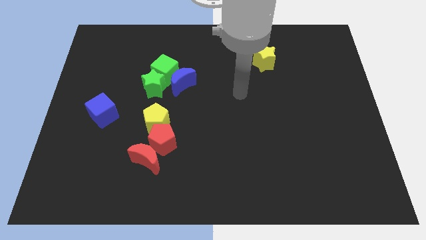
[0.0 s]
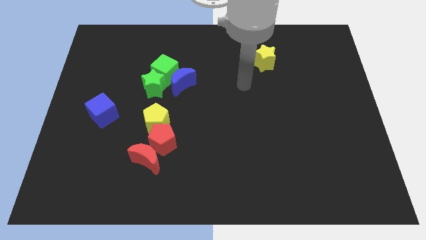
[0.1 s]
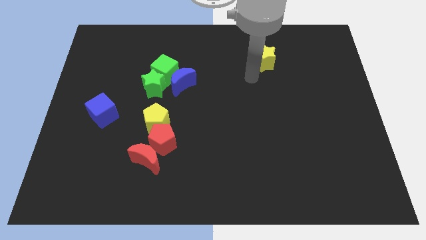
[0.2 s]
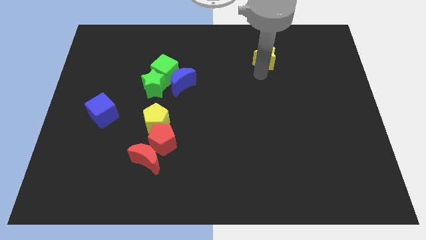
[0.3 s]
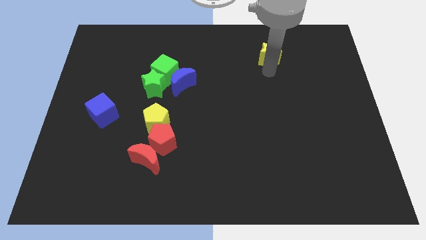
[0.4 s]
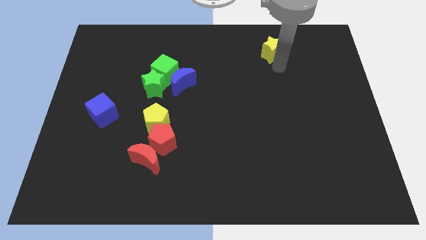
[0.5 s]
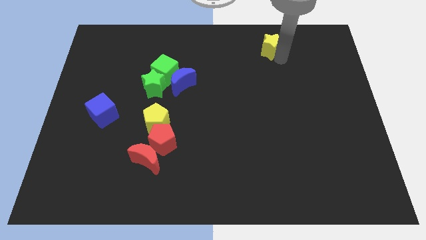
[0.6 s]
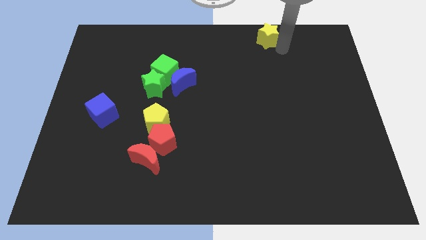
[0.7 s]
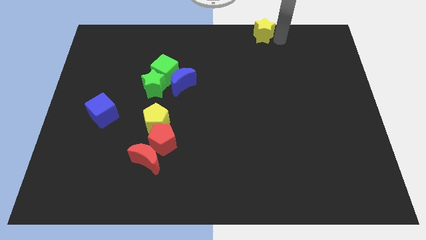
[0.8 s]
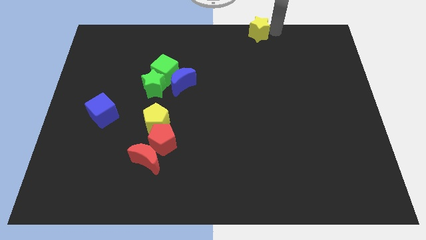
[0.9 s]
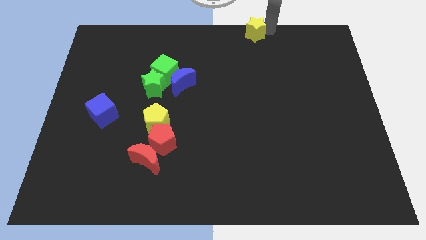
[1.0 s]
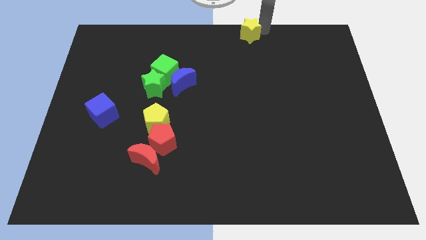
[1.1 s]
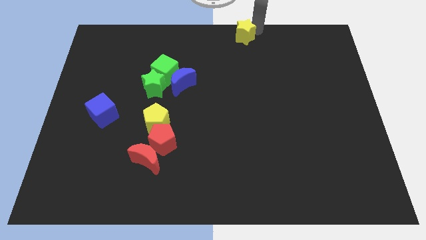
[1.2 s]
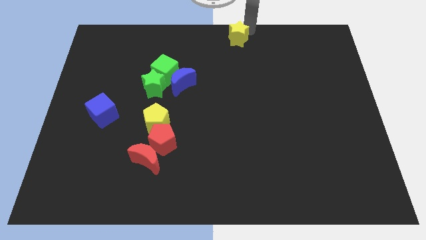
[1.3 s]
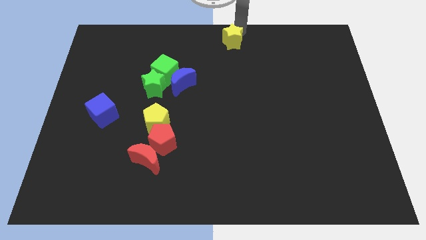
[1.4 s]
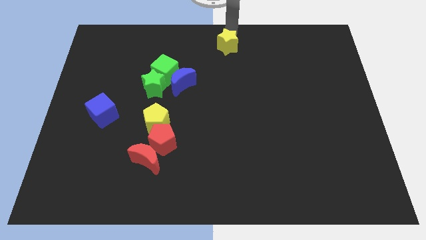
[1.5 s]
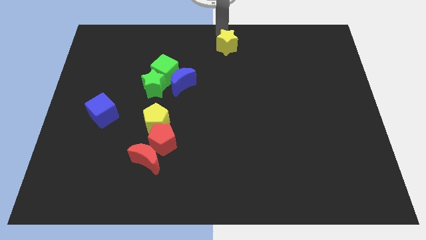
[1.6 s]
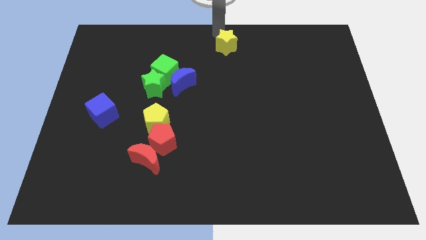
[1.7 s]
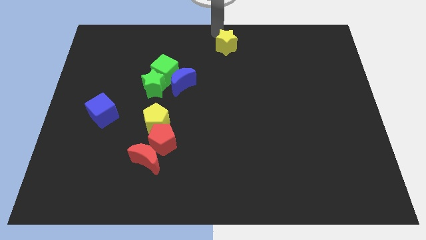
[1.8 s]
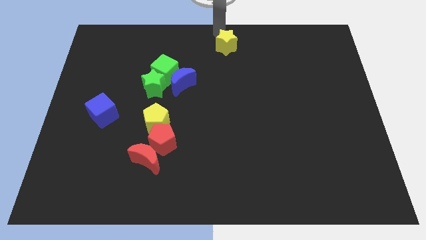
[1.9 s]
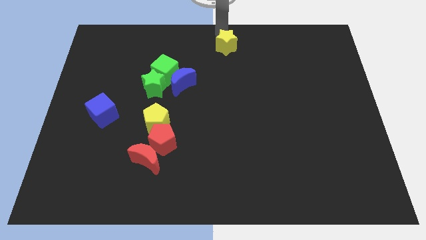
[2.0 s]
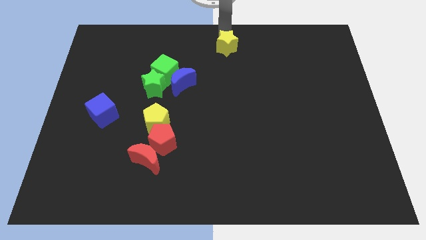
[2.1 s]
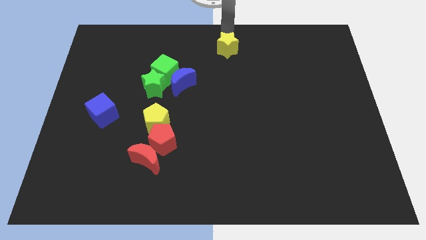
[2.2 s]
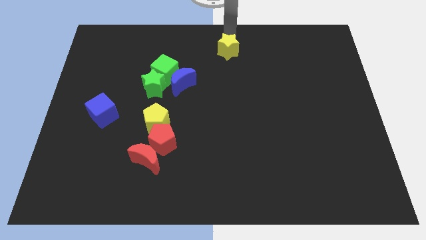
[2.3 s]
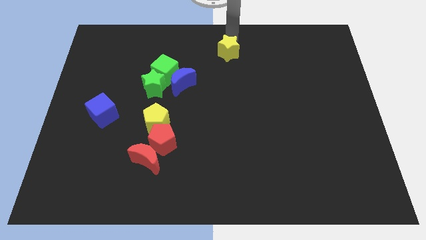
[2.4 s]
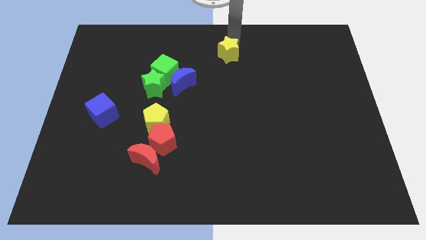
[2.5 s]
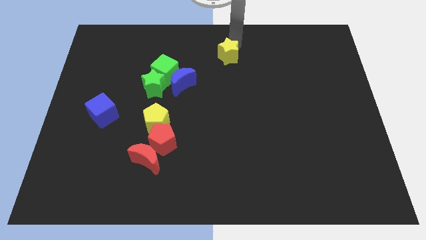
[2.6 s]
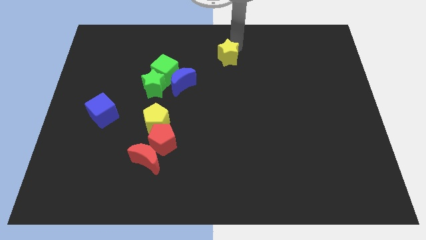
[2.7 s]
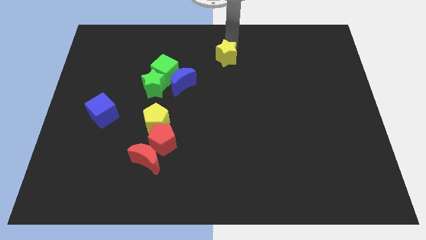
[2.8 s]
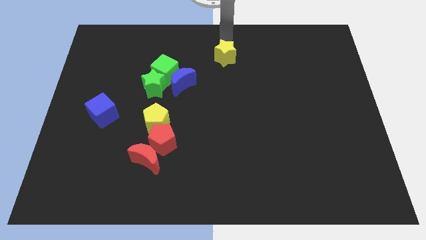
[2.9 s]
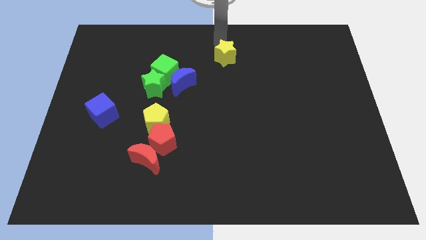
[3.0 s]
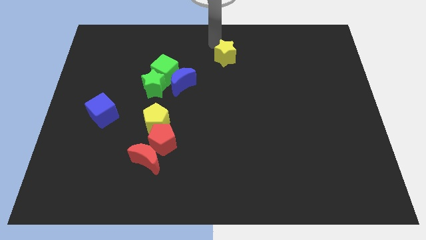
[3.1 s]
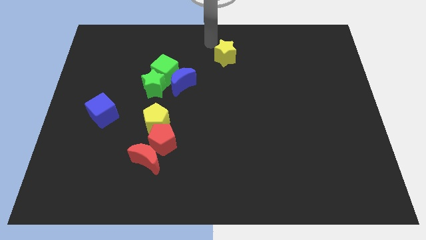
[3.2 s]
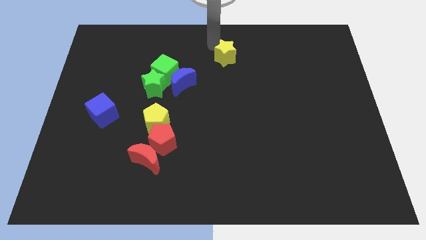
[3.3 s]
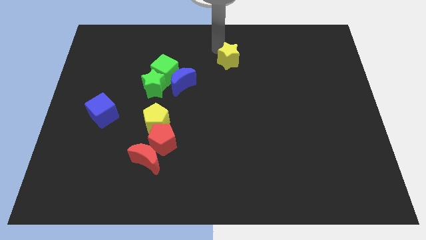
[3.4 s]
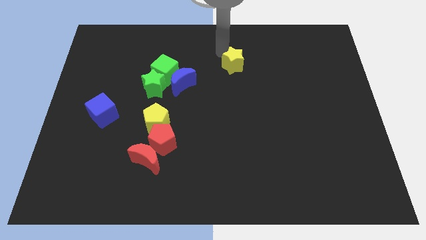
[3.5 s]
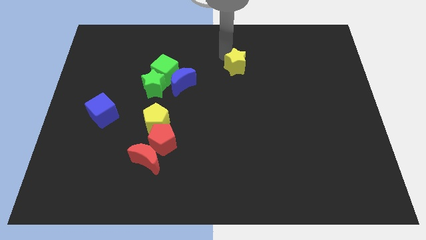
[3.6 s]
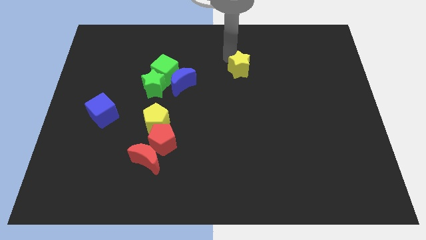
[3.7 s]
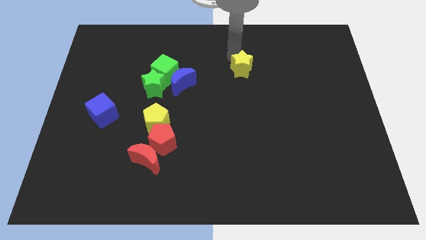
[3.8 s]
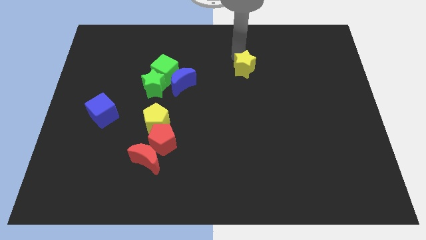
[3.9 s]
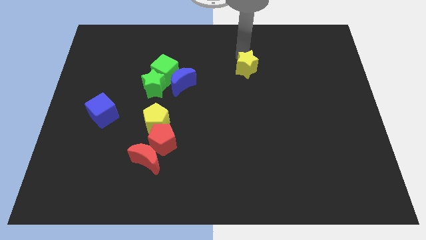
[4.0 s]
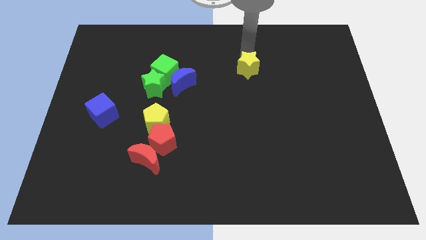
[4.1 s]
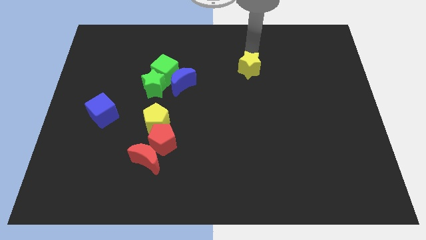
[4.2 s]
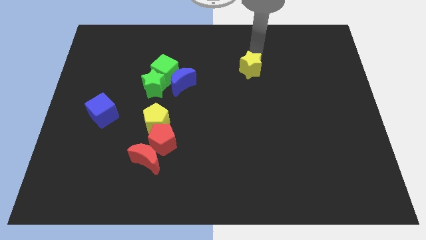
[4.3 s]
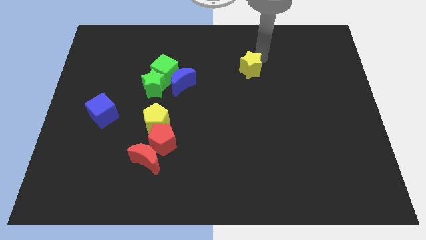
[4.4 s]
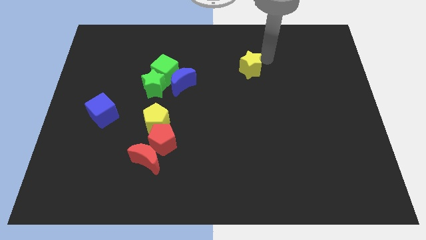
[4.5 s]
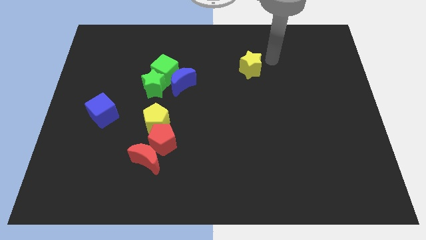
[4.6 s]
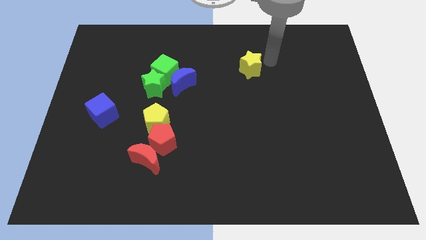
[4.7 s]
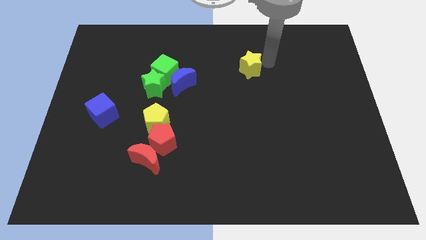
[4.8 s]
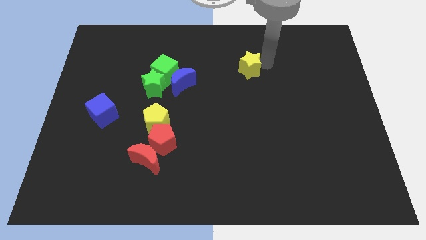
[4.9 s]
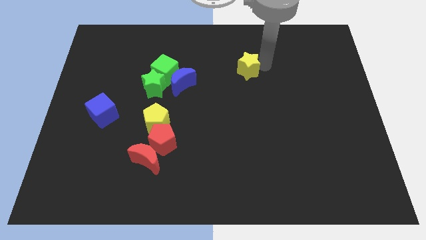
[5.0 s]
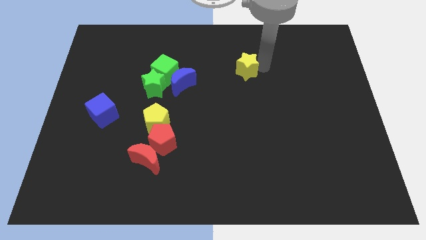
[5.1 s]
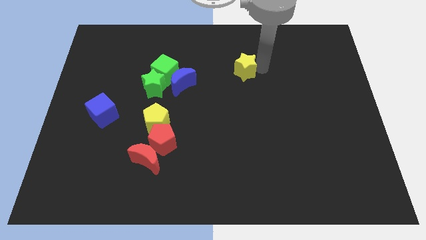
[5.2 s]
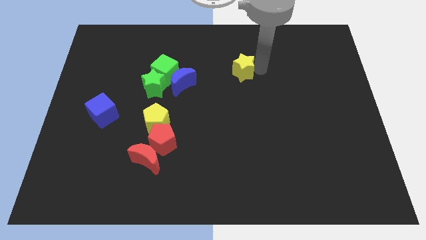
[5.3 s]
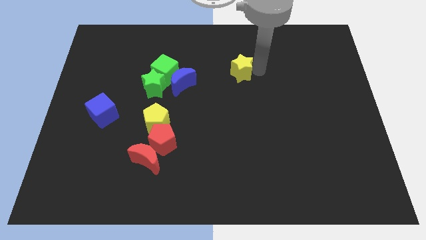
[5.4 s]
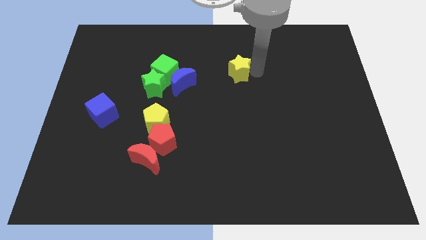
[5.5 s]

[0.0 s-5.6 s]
slide the yellow star to the right side of the blue moon

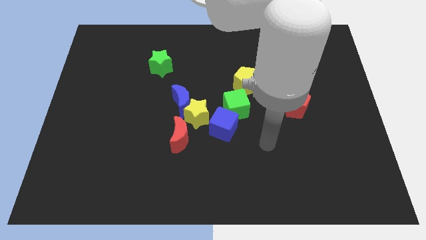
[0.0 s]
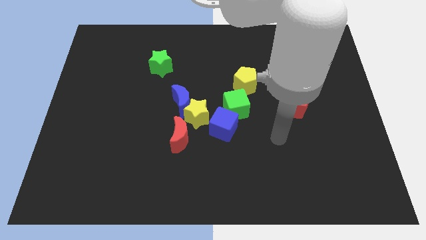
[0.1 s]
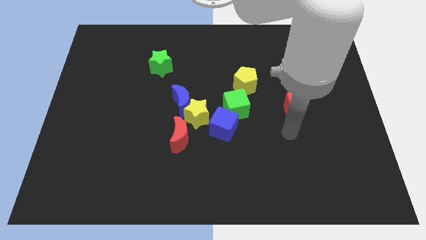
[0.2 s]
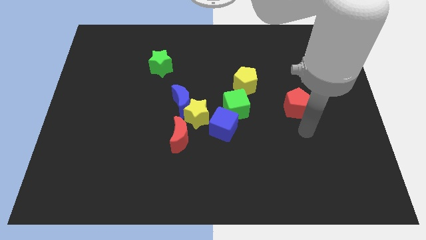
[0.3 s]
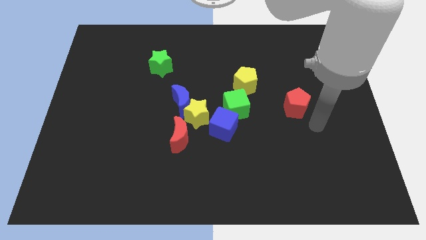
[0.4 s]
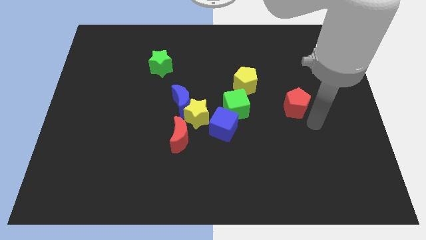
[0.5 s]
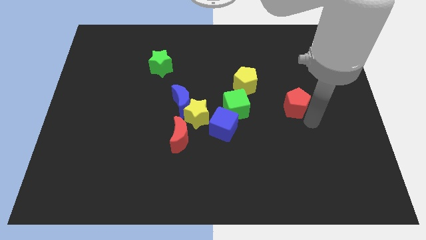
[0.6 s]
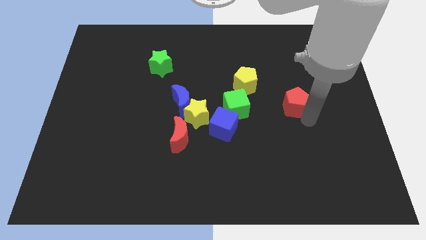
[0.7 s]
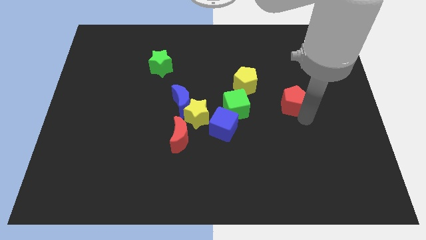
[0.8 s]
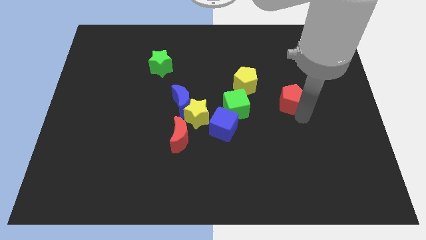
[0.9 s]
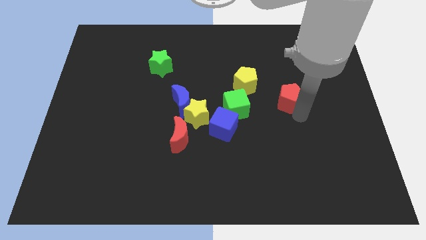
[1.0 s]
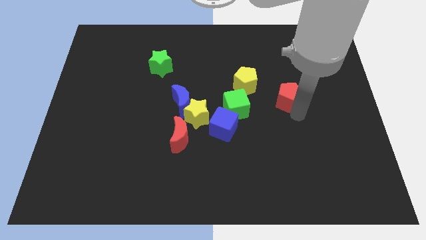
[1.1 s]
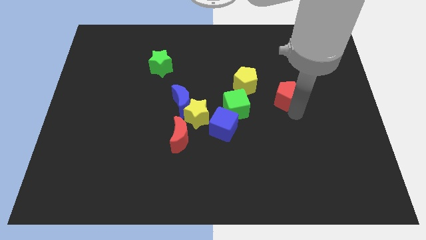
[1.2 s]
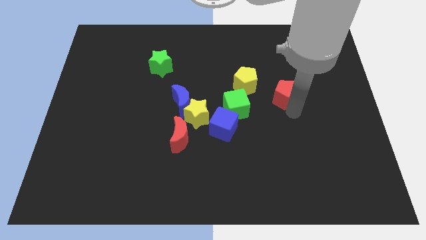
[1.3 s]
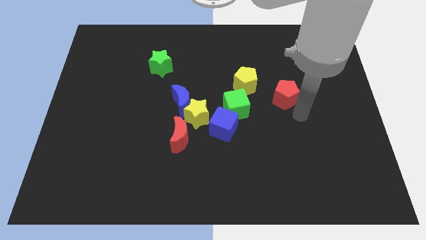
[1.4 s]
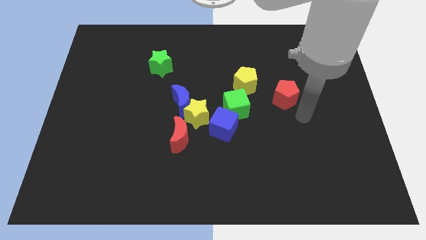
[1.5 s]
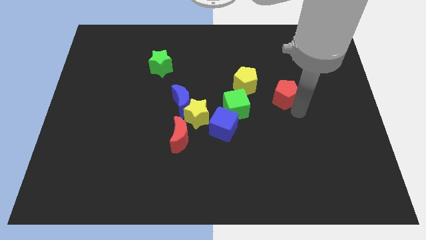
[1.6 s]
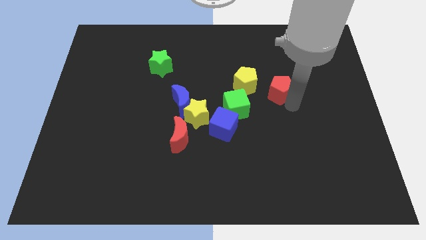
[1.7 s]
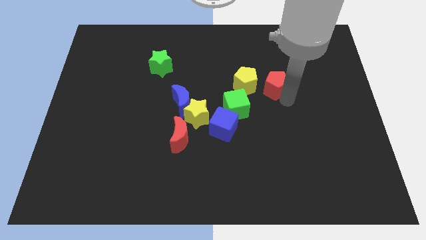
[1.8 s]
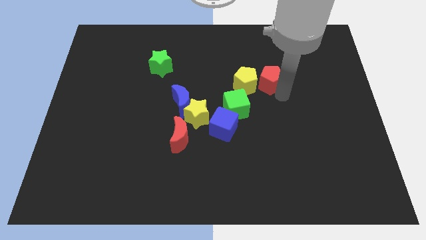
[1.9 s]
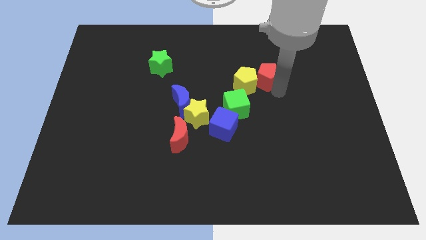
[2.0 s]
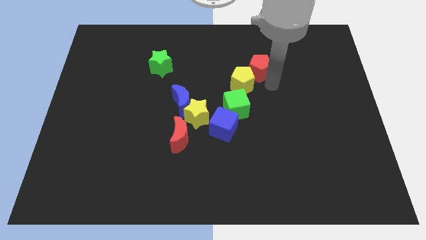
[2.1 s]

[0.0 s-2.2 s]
move the red pentagon to the top of the yellow pentagon
